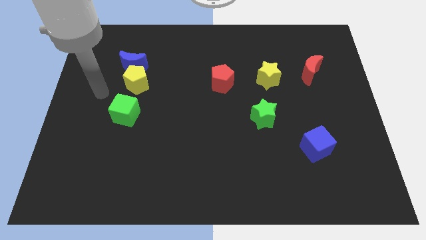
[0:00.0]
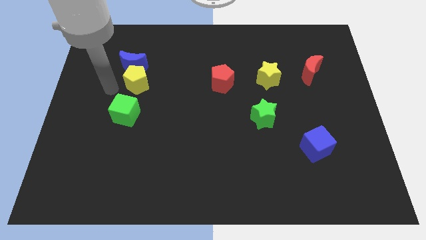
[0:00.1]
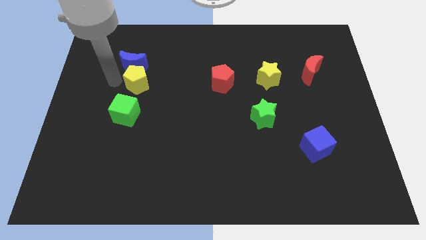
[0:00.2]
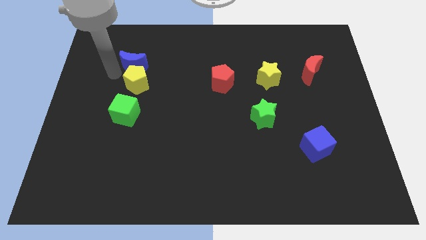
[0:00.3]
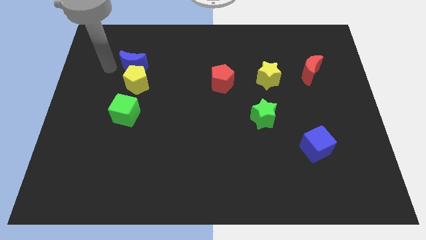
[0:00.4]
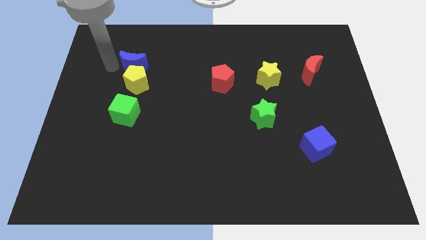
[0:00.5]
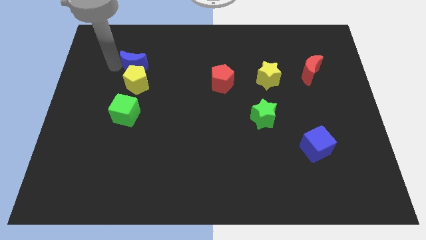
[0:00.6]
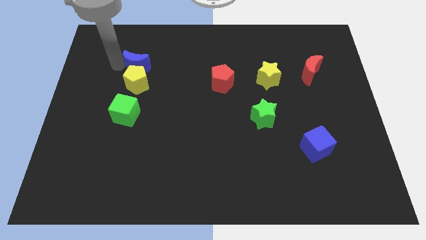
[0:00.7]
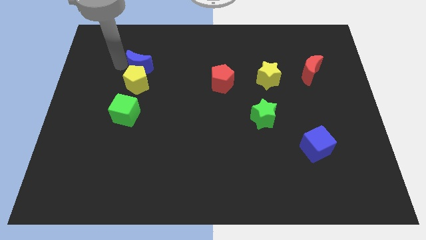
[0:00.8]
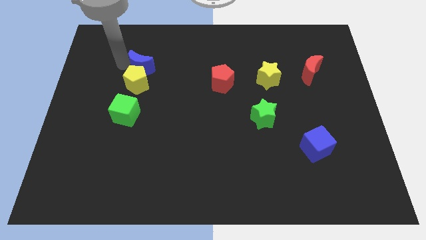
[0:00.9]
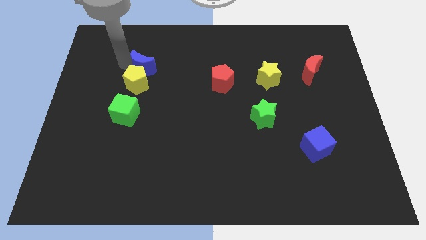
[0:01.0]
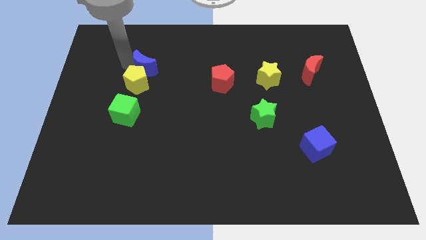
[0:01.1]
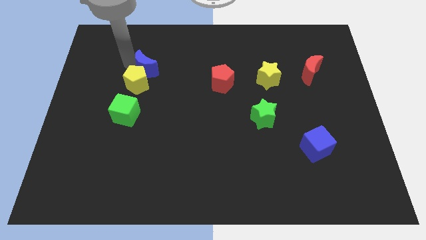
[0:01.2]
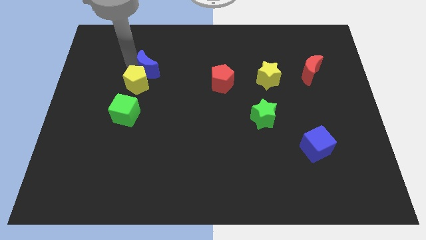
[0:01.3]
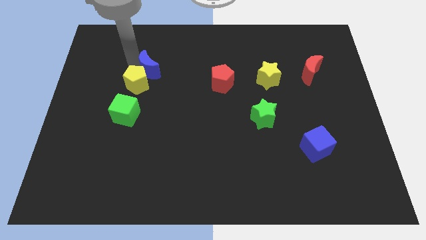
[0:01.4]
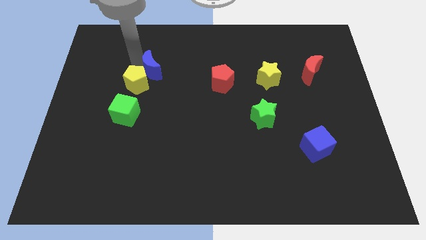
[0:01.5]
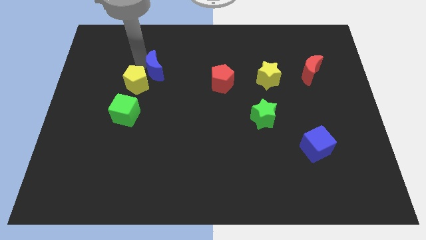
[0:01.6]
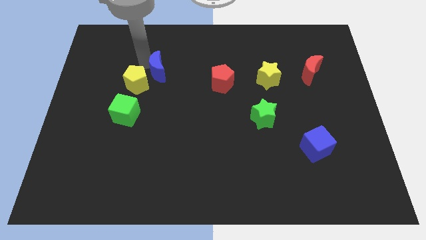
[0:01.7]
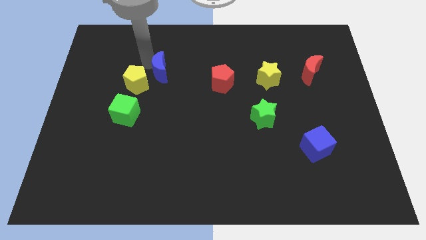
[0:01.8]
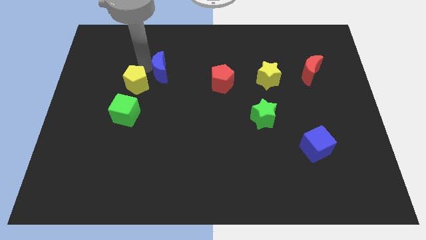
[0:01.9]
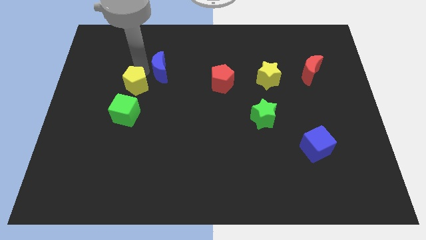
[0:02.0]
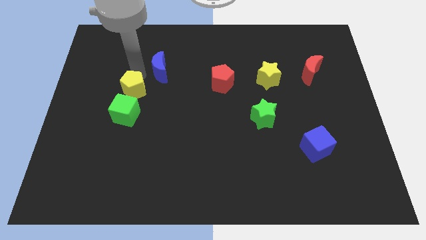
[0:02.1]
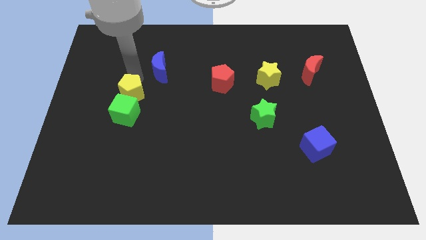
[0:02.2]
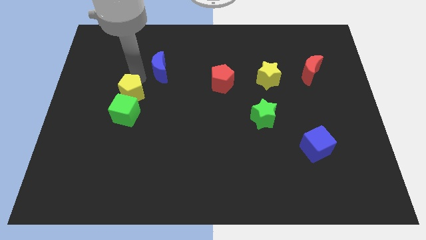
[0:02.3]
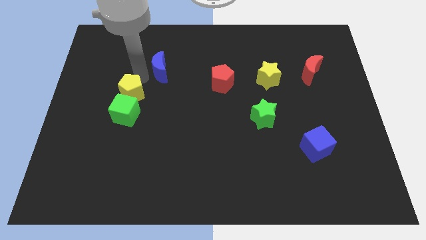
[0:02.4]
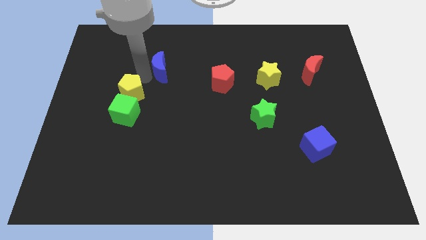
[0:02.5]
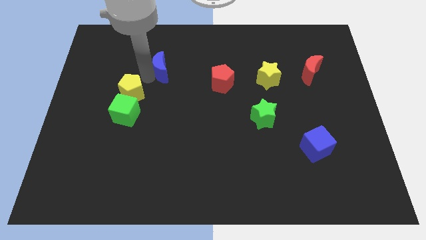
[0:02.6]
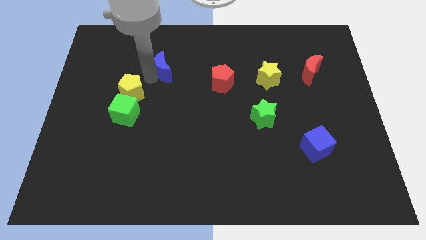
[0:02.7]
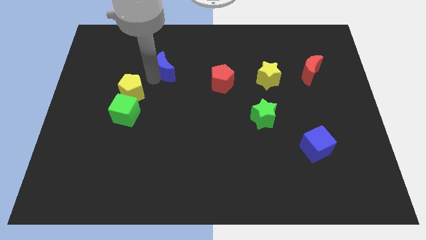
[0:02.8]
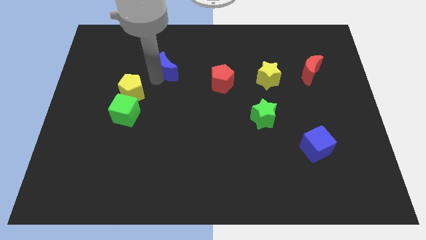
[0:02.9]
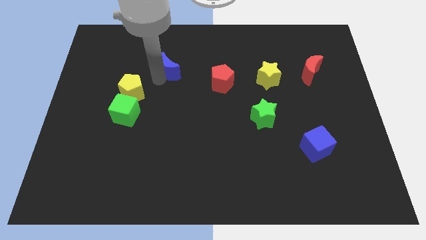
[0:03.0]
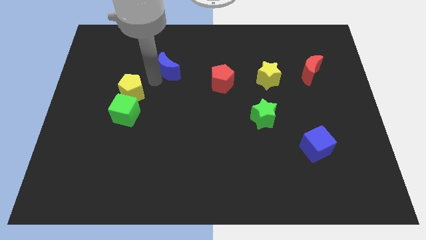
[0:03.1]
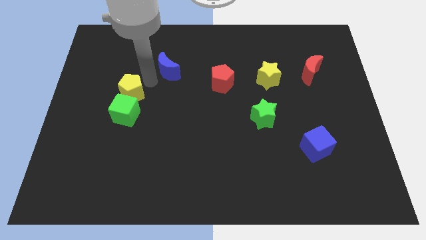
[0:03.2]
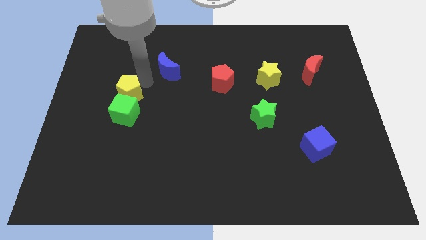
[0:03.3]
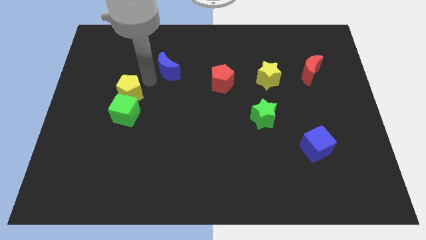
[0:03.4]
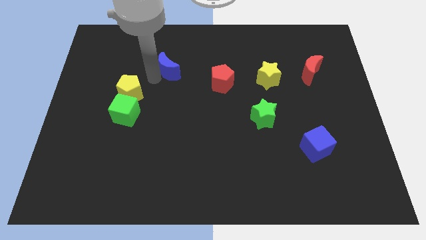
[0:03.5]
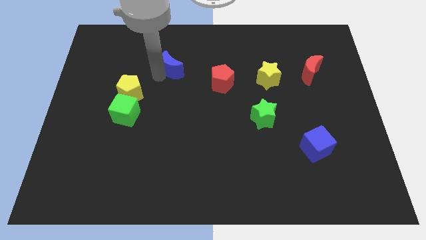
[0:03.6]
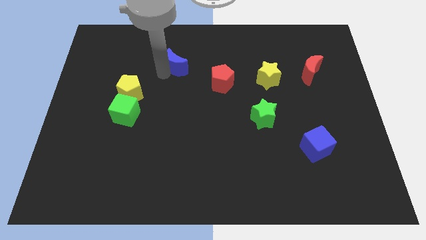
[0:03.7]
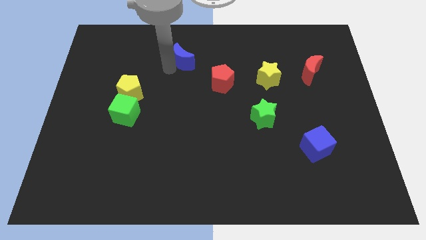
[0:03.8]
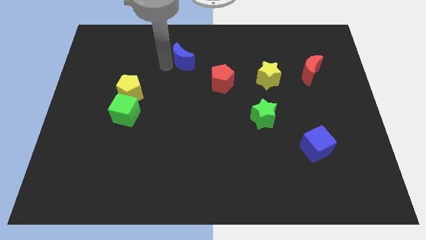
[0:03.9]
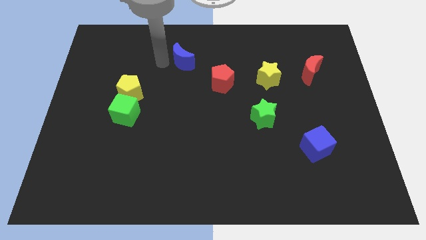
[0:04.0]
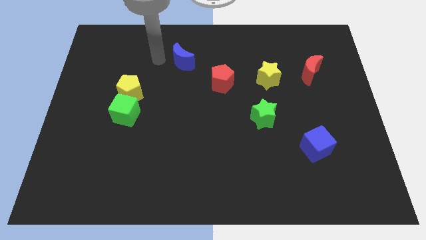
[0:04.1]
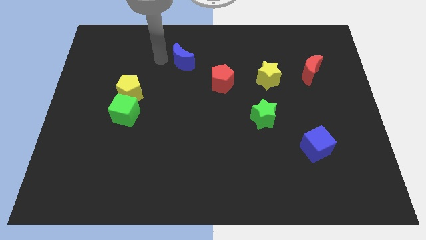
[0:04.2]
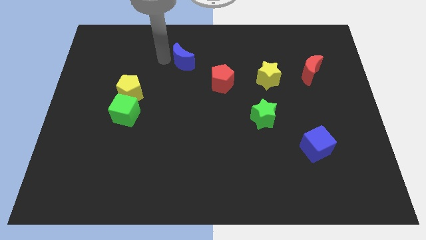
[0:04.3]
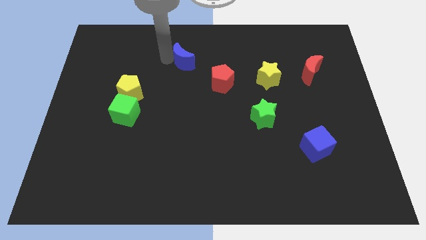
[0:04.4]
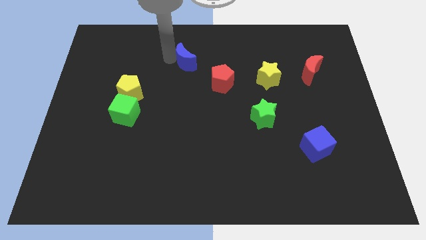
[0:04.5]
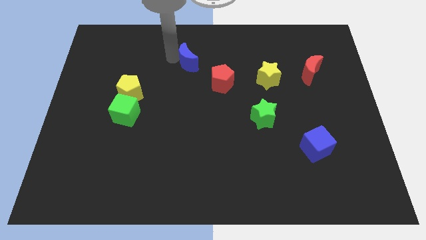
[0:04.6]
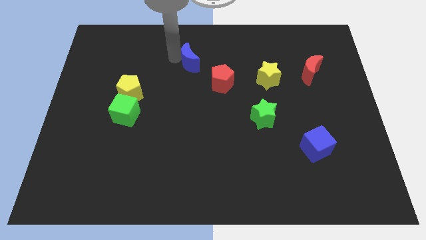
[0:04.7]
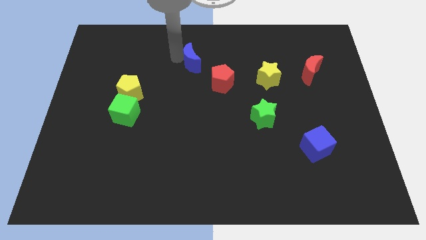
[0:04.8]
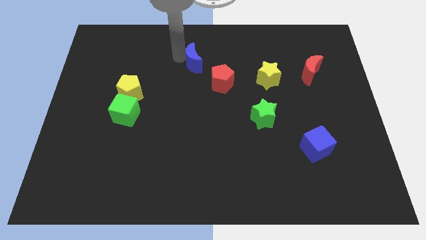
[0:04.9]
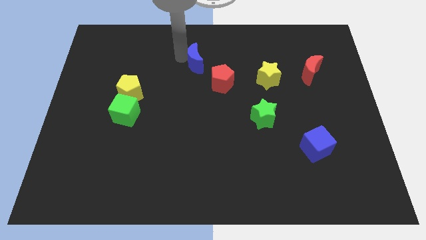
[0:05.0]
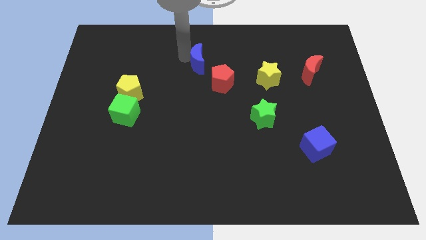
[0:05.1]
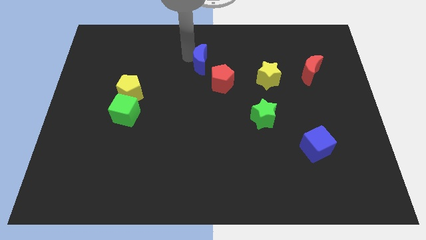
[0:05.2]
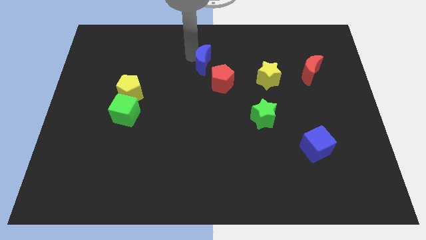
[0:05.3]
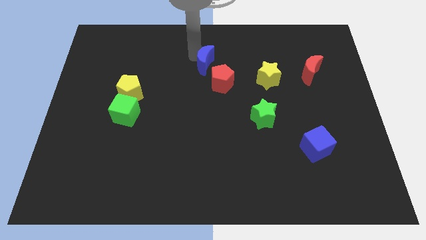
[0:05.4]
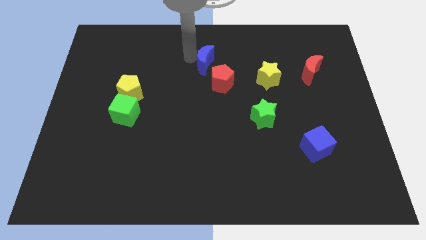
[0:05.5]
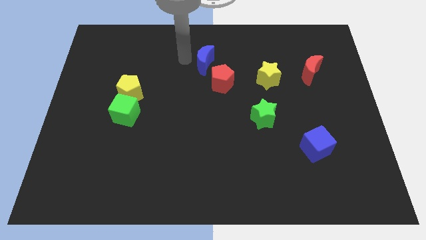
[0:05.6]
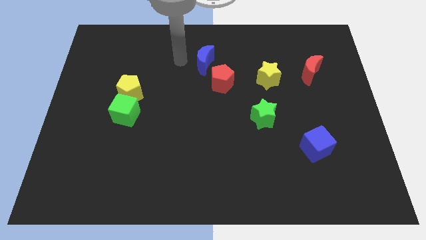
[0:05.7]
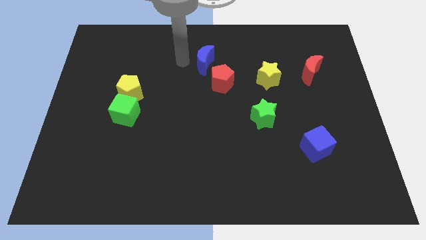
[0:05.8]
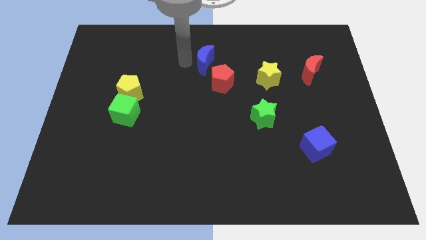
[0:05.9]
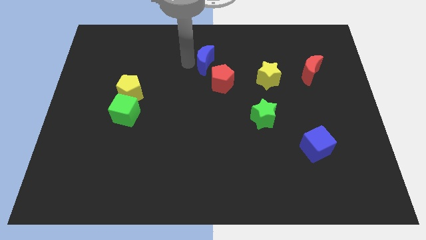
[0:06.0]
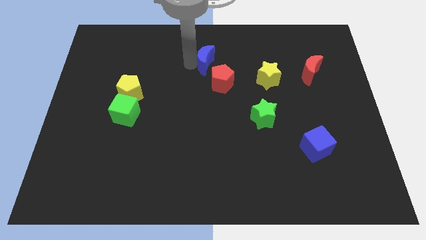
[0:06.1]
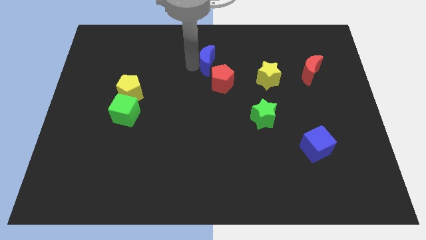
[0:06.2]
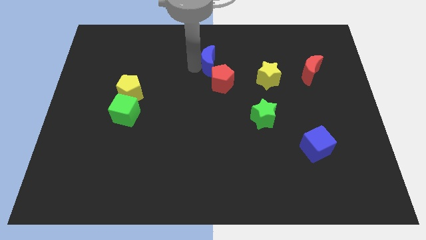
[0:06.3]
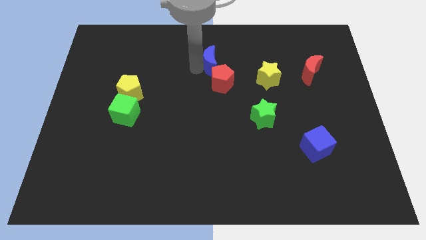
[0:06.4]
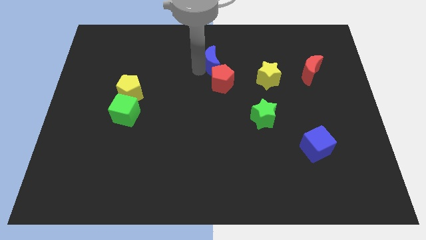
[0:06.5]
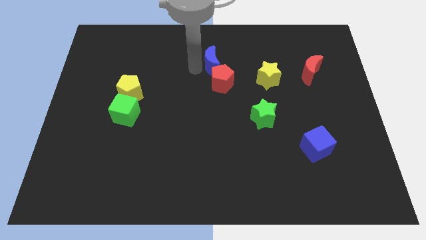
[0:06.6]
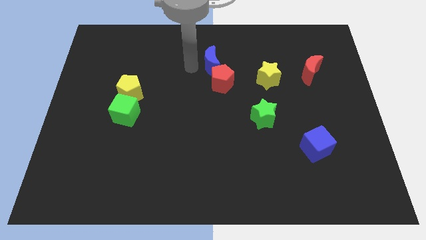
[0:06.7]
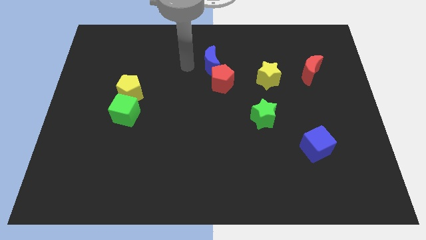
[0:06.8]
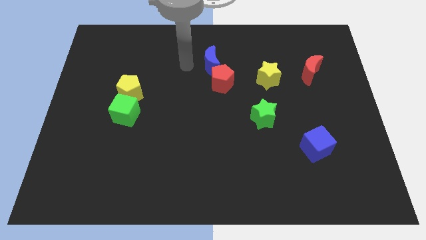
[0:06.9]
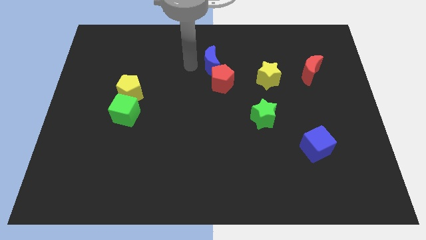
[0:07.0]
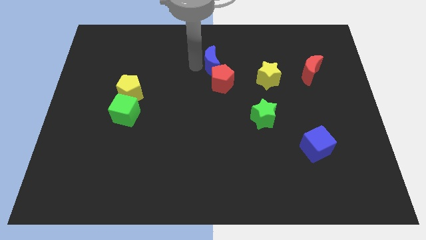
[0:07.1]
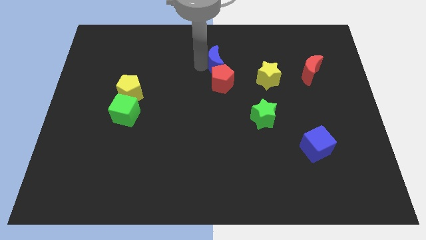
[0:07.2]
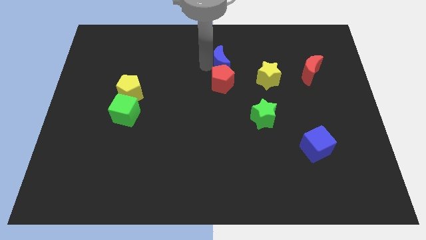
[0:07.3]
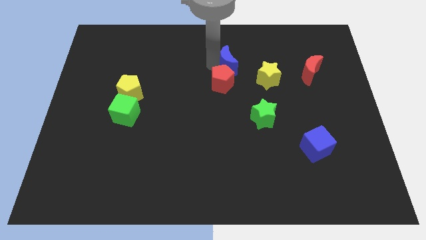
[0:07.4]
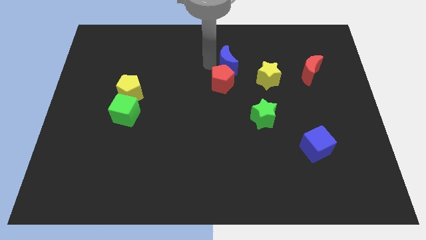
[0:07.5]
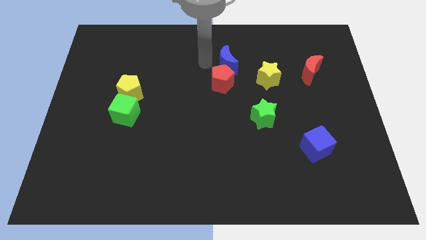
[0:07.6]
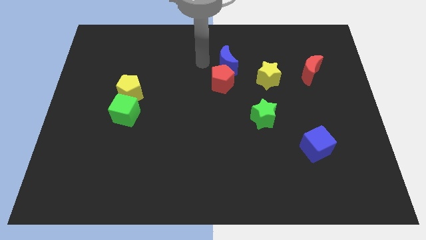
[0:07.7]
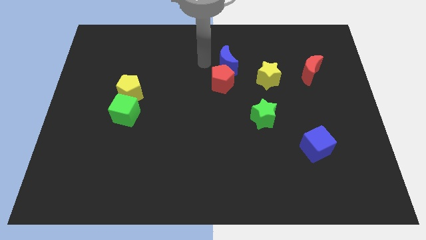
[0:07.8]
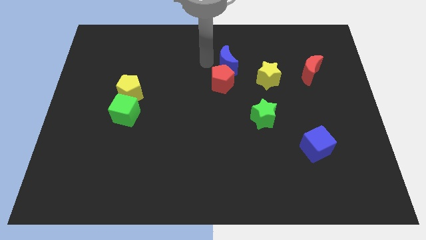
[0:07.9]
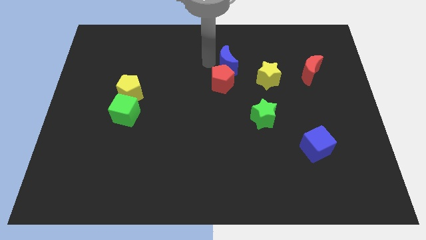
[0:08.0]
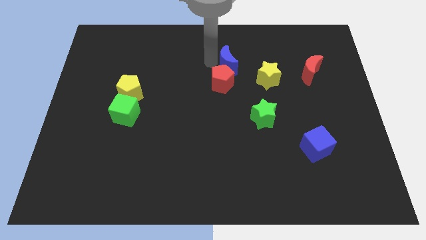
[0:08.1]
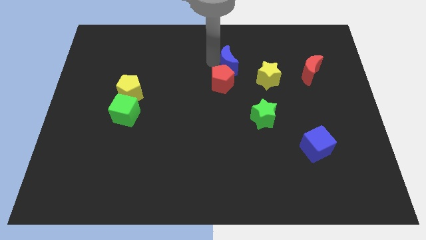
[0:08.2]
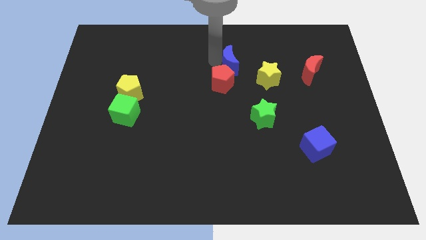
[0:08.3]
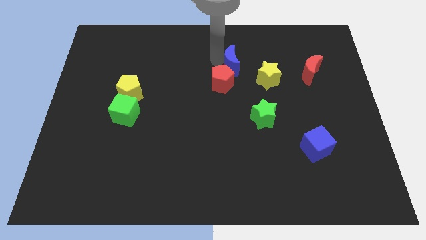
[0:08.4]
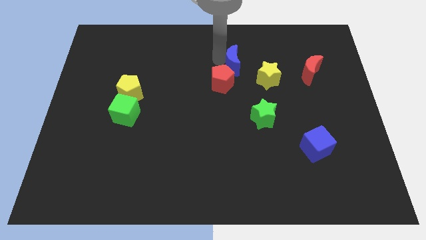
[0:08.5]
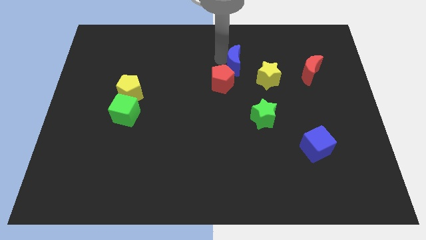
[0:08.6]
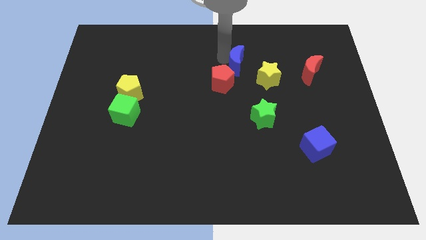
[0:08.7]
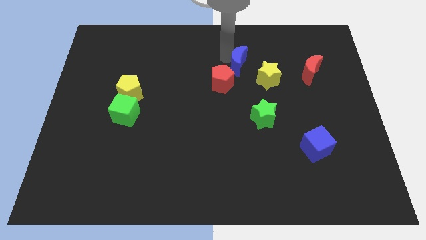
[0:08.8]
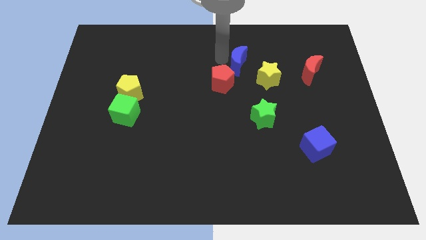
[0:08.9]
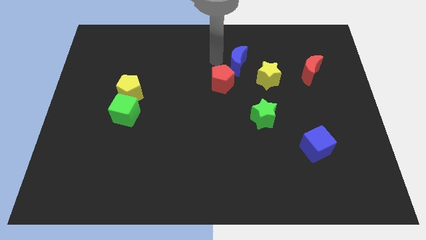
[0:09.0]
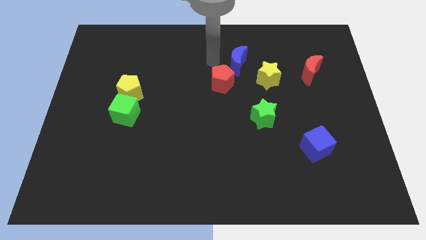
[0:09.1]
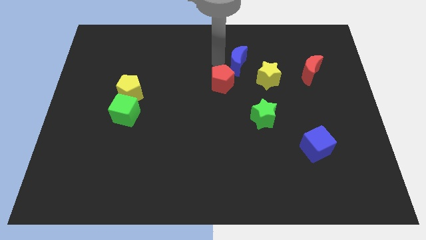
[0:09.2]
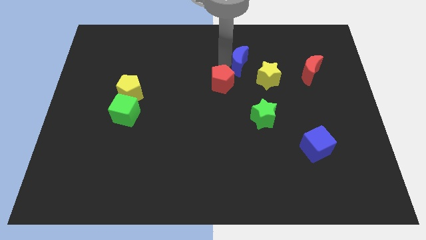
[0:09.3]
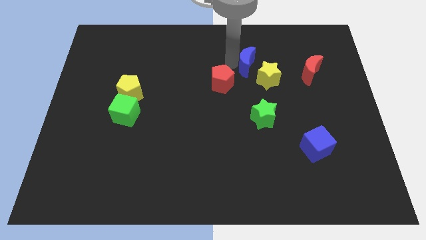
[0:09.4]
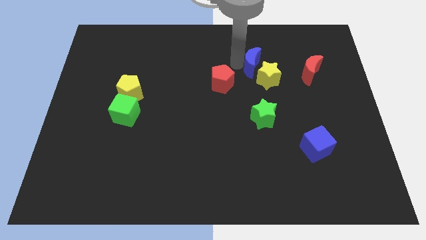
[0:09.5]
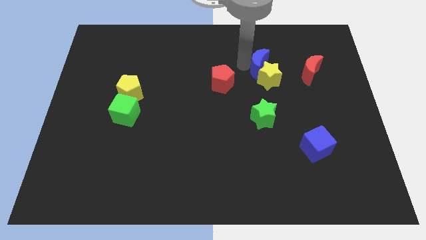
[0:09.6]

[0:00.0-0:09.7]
move the blue moon to the top side of the green star
